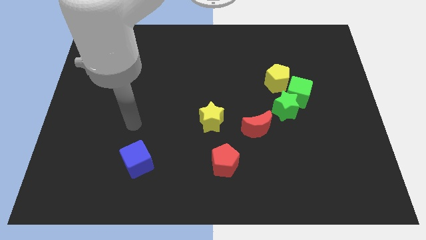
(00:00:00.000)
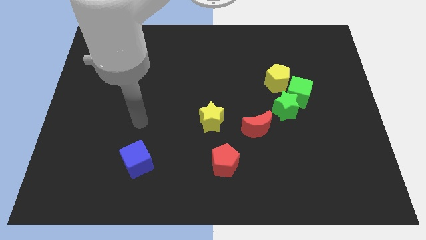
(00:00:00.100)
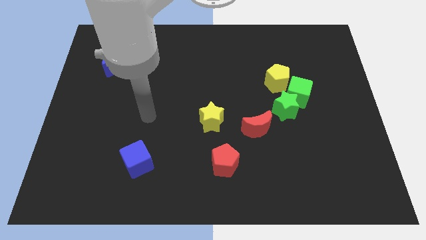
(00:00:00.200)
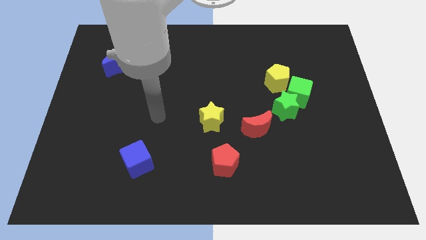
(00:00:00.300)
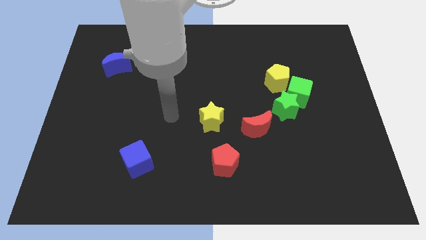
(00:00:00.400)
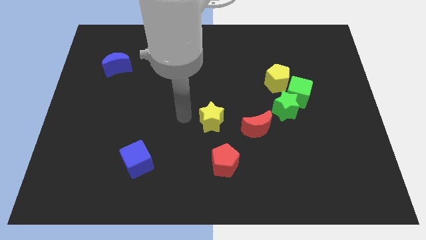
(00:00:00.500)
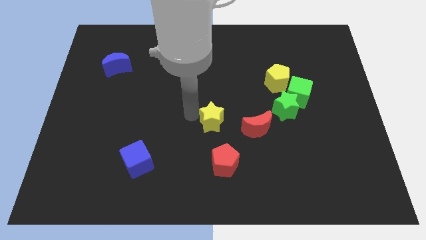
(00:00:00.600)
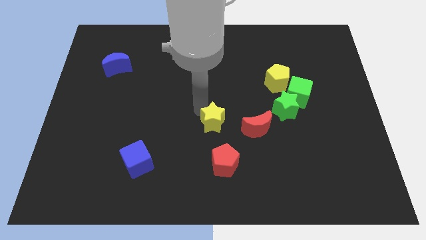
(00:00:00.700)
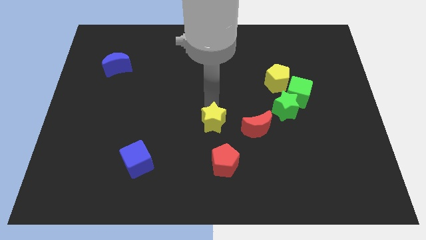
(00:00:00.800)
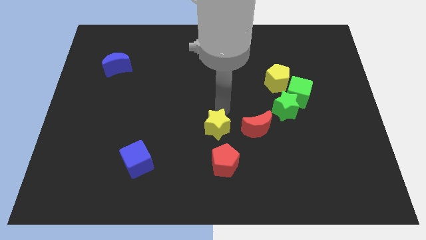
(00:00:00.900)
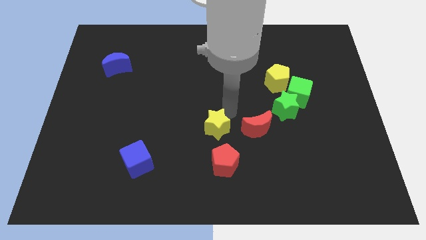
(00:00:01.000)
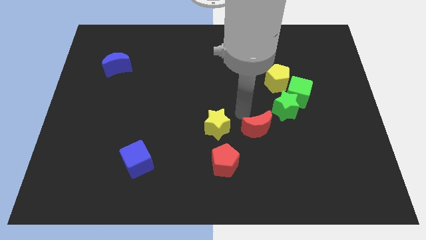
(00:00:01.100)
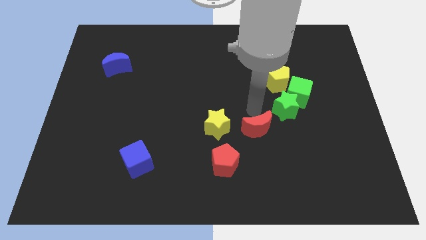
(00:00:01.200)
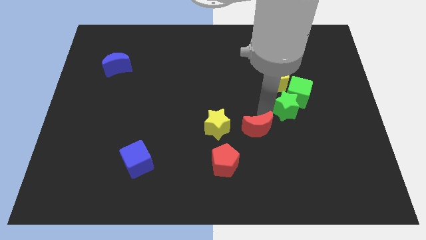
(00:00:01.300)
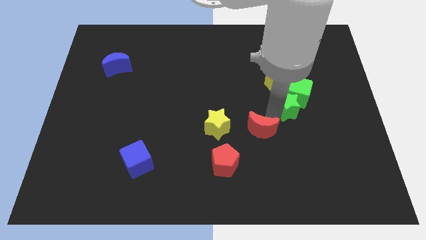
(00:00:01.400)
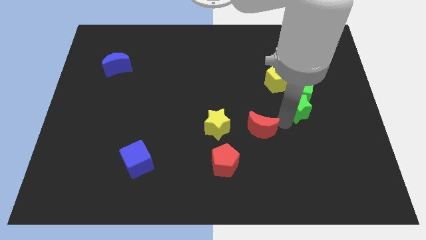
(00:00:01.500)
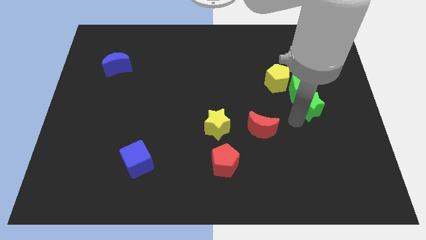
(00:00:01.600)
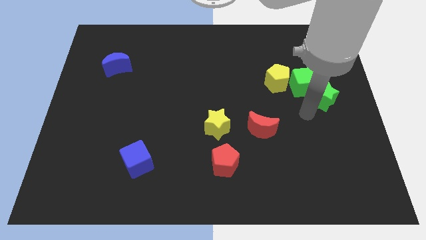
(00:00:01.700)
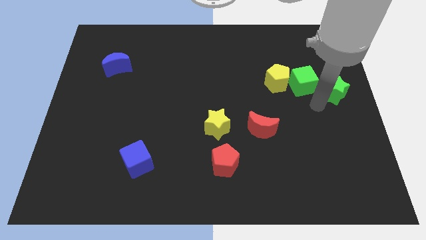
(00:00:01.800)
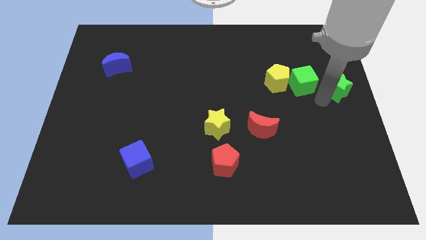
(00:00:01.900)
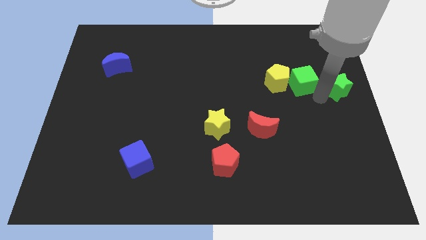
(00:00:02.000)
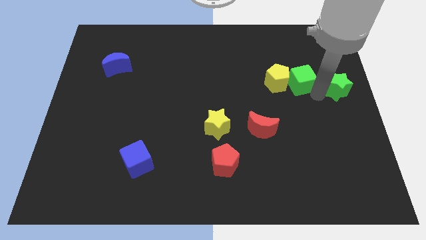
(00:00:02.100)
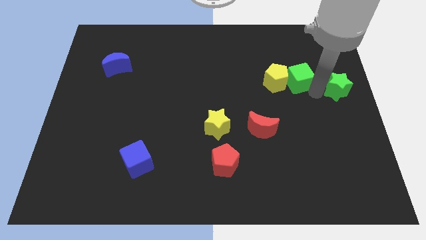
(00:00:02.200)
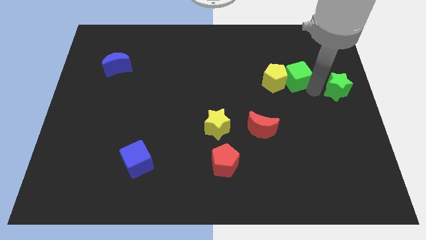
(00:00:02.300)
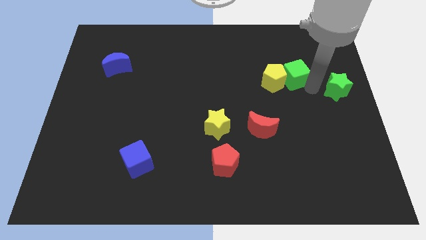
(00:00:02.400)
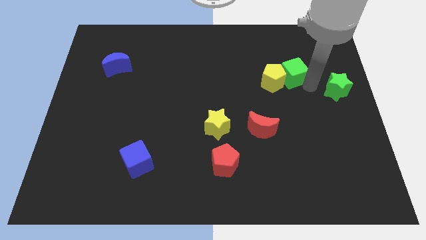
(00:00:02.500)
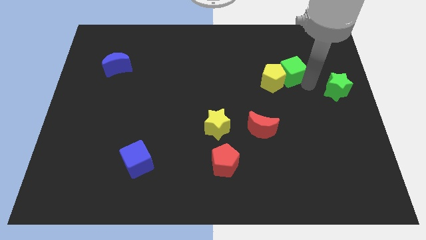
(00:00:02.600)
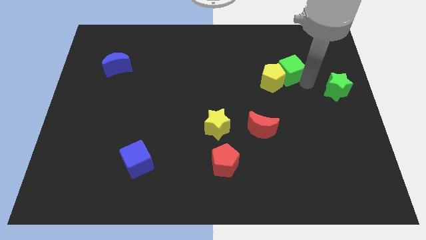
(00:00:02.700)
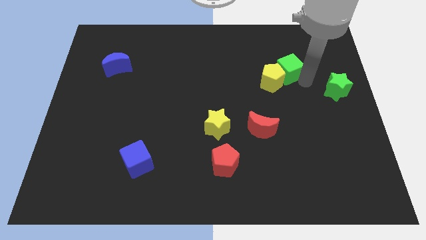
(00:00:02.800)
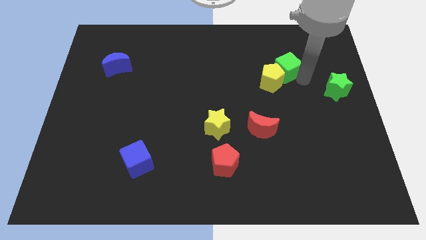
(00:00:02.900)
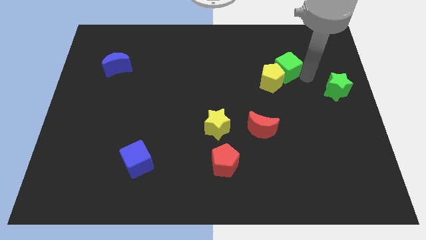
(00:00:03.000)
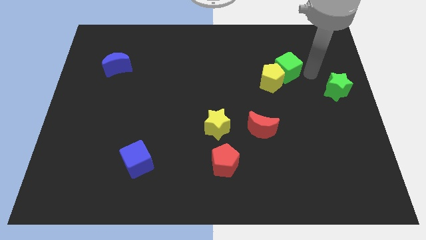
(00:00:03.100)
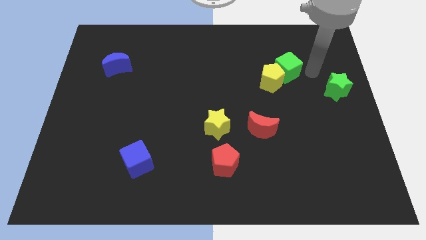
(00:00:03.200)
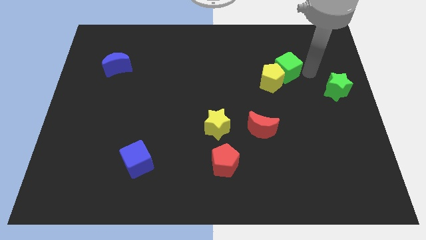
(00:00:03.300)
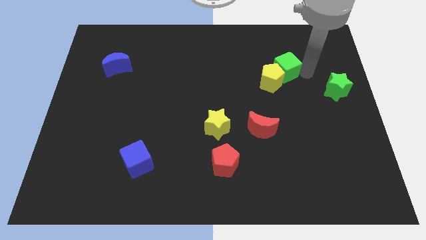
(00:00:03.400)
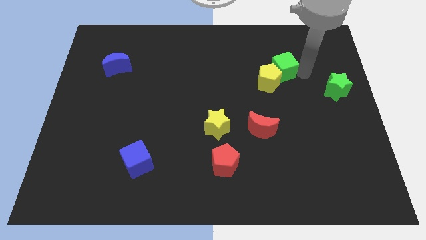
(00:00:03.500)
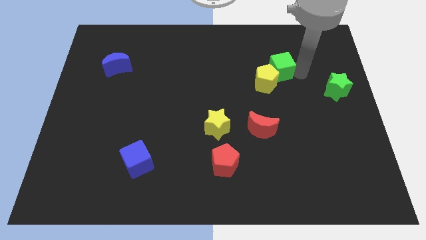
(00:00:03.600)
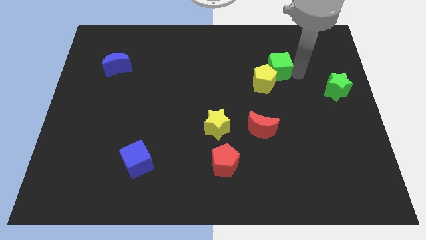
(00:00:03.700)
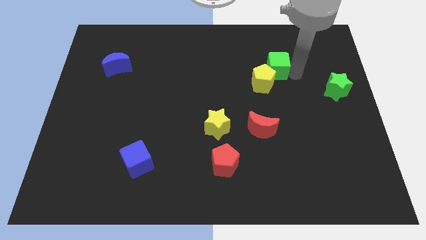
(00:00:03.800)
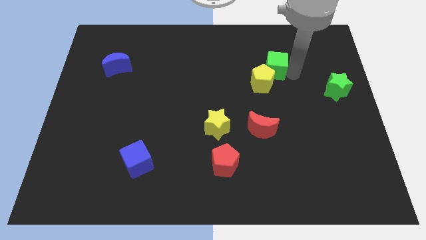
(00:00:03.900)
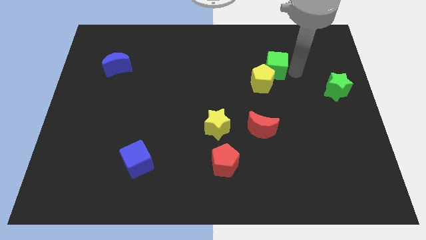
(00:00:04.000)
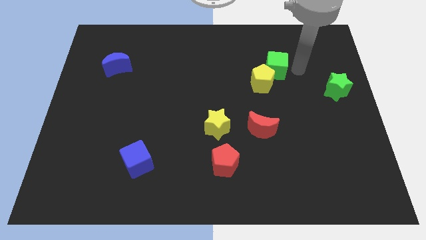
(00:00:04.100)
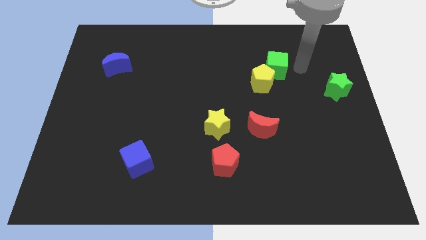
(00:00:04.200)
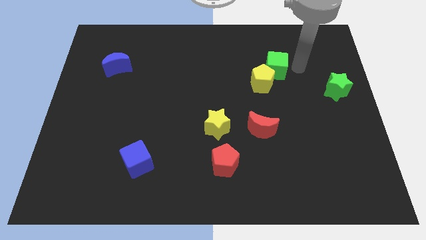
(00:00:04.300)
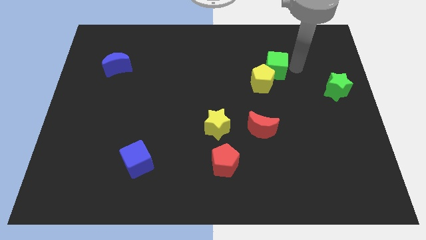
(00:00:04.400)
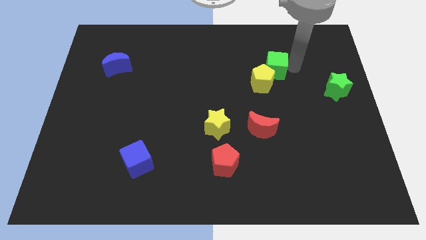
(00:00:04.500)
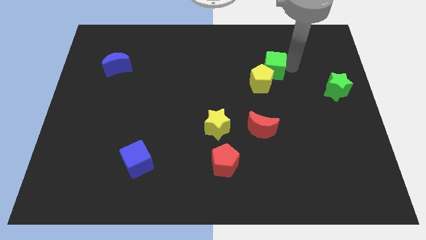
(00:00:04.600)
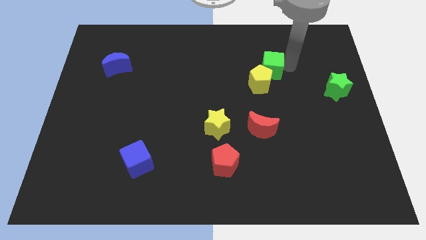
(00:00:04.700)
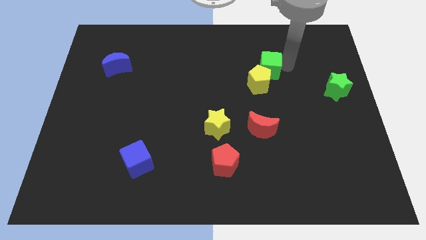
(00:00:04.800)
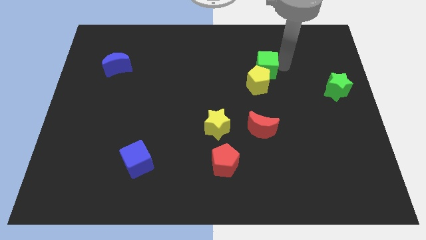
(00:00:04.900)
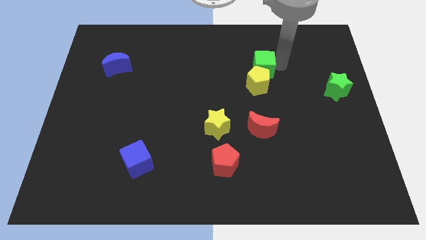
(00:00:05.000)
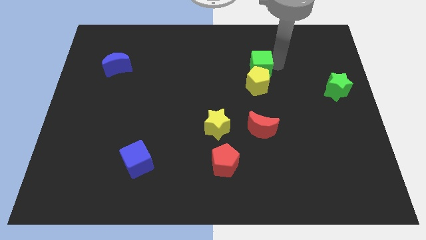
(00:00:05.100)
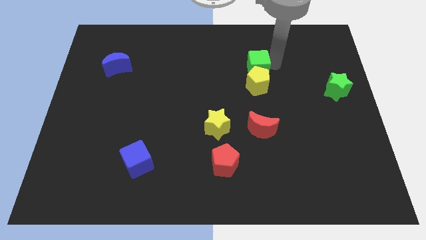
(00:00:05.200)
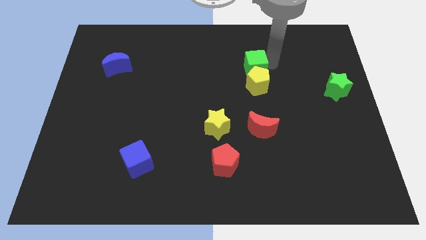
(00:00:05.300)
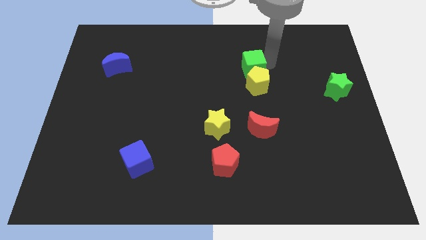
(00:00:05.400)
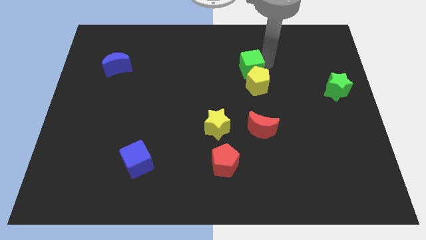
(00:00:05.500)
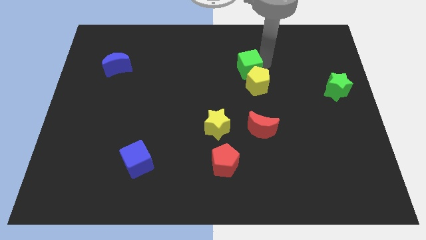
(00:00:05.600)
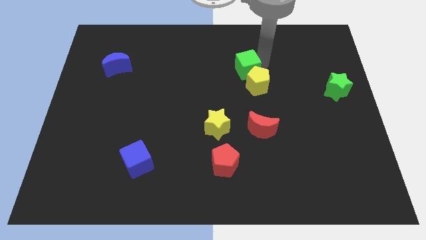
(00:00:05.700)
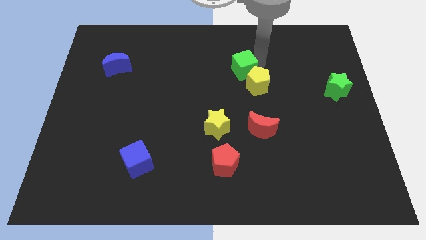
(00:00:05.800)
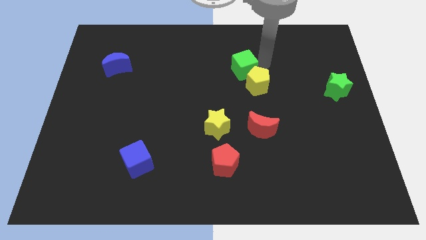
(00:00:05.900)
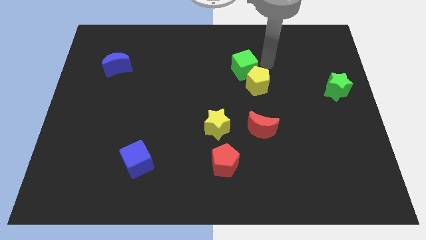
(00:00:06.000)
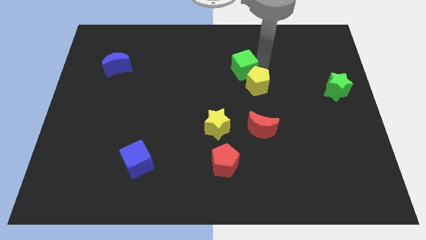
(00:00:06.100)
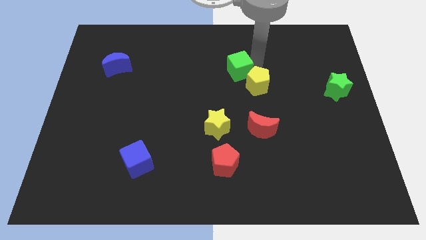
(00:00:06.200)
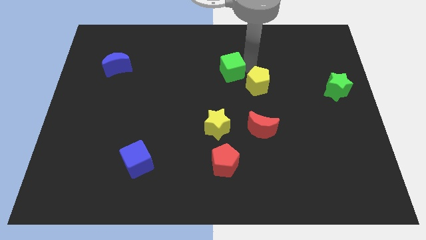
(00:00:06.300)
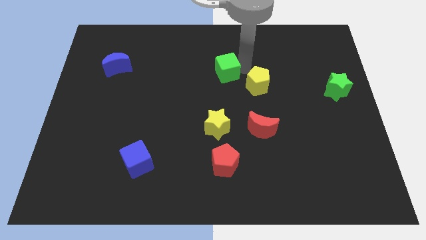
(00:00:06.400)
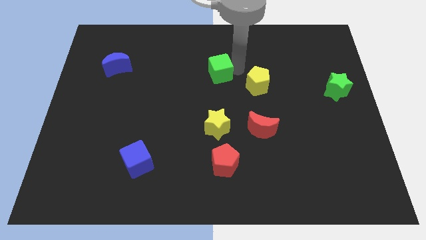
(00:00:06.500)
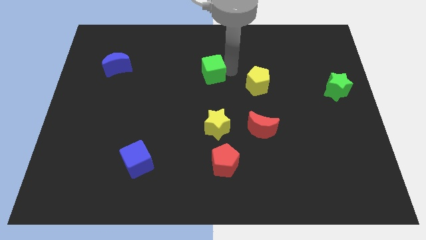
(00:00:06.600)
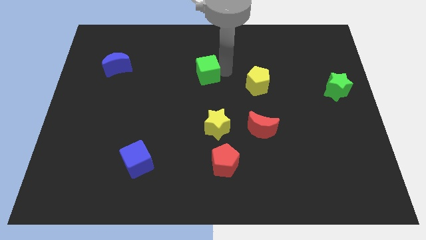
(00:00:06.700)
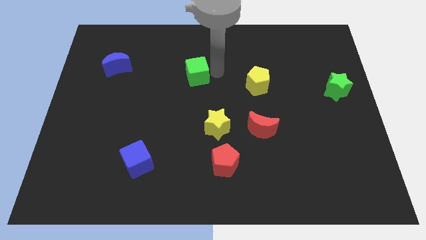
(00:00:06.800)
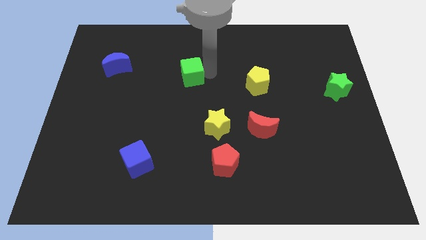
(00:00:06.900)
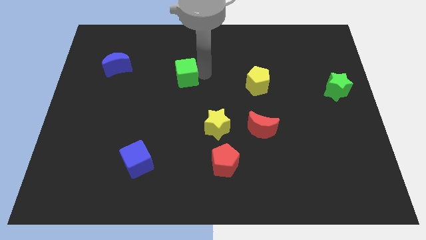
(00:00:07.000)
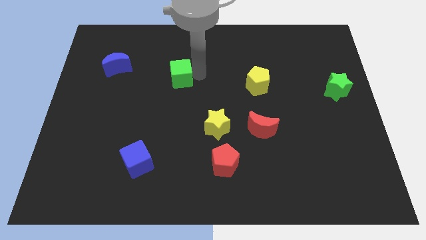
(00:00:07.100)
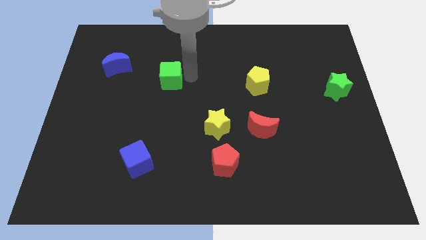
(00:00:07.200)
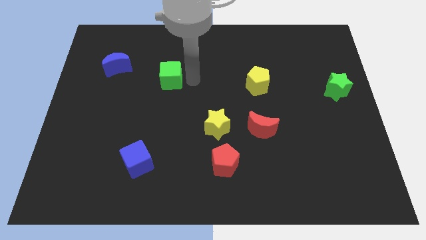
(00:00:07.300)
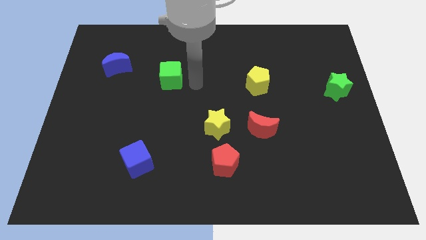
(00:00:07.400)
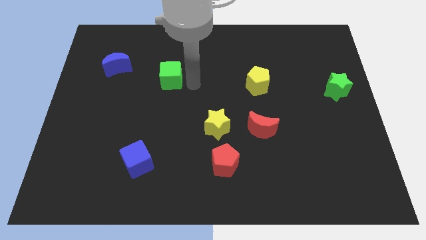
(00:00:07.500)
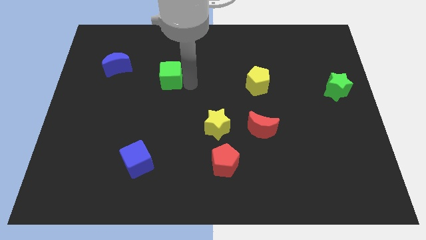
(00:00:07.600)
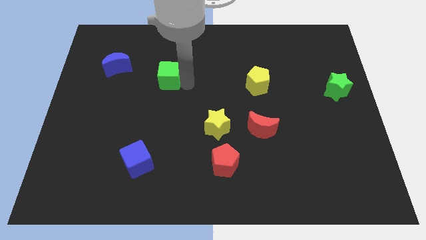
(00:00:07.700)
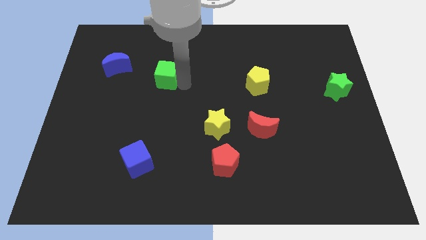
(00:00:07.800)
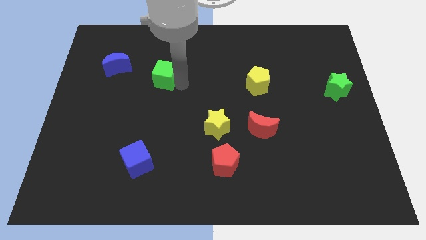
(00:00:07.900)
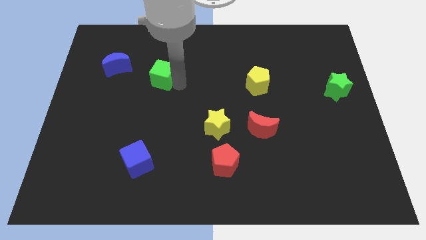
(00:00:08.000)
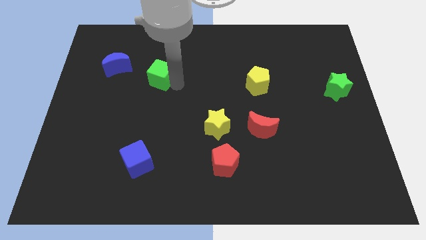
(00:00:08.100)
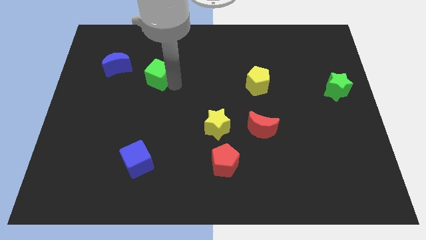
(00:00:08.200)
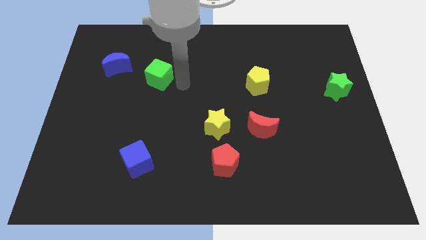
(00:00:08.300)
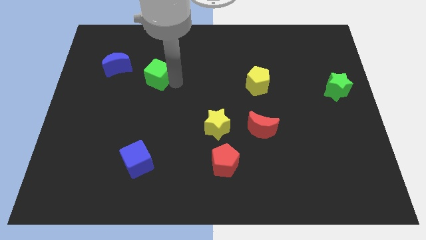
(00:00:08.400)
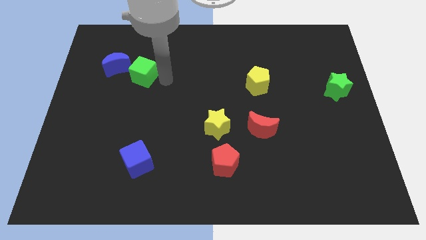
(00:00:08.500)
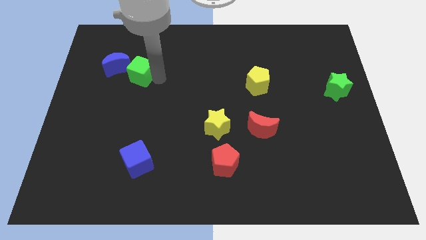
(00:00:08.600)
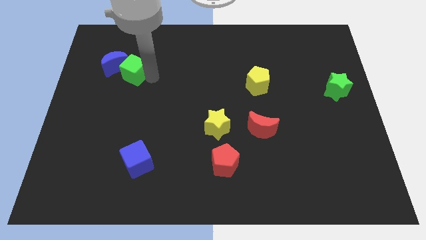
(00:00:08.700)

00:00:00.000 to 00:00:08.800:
push the green cube close to the blue moon
